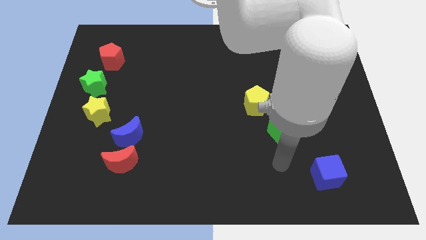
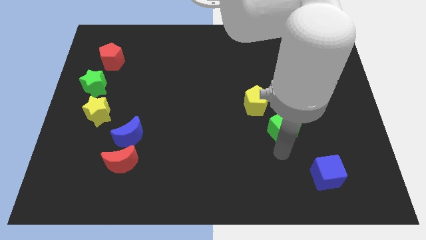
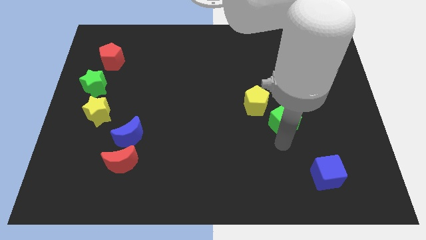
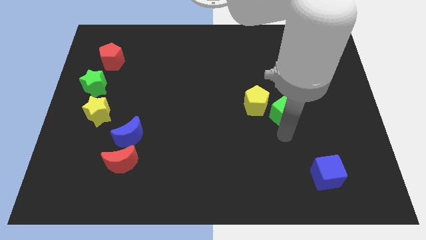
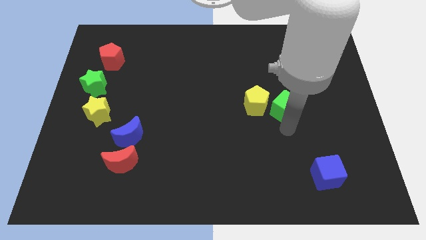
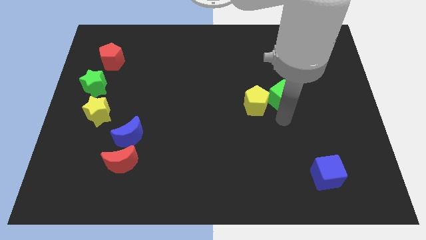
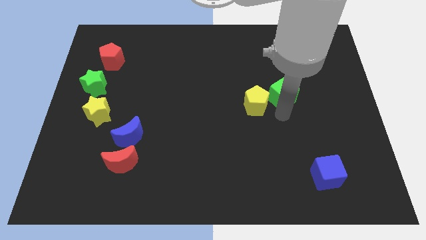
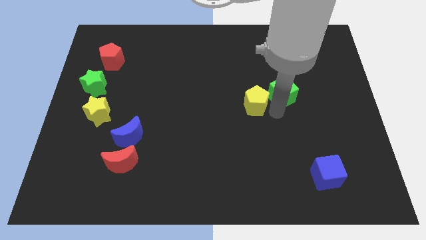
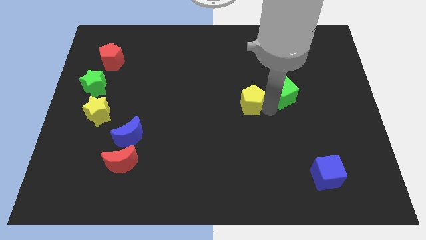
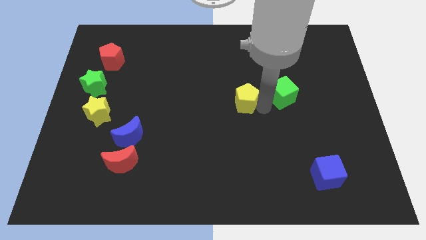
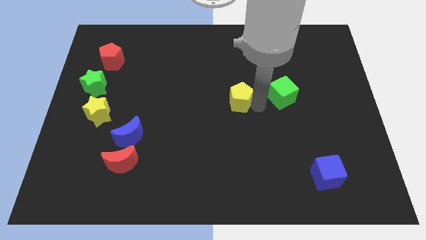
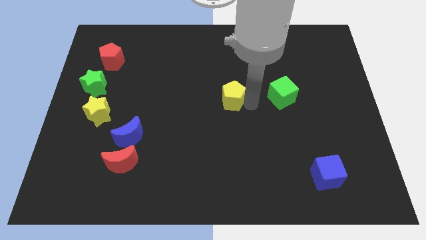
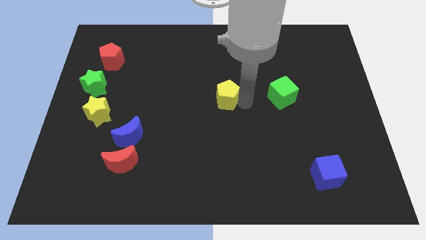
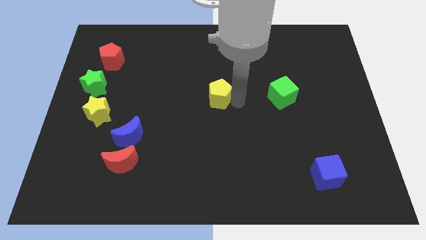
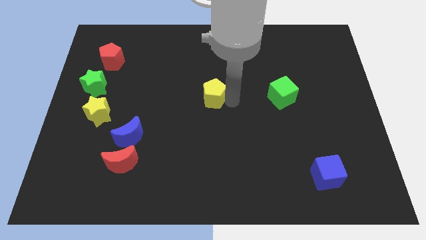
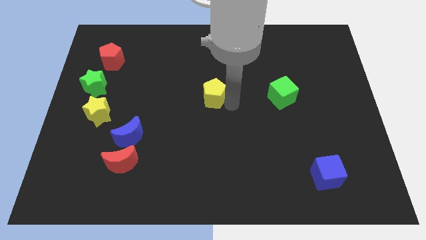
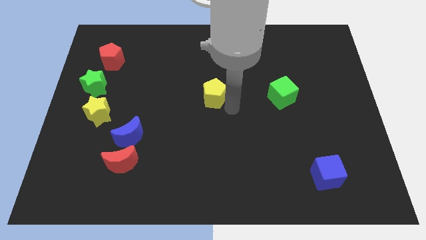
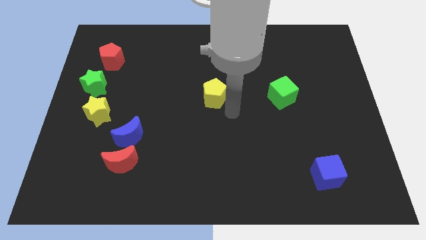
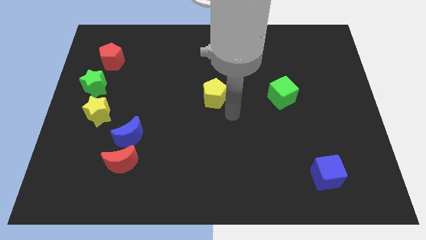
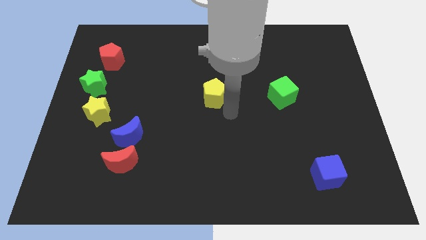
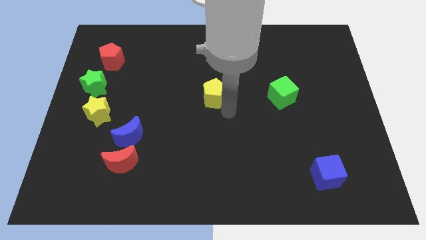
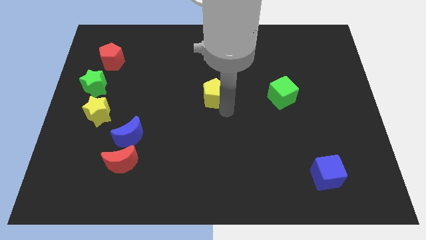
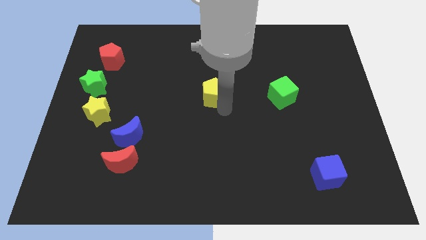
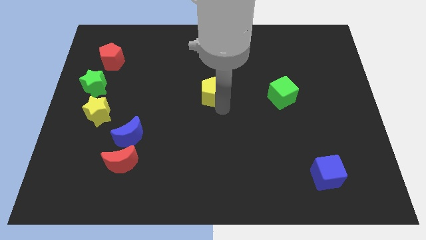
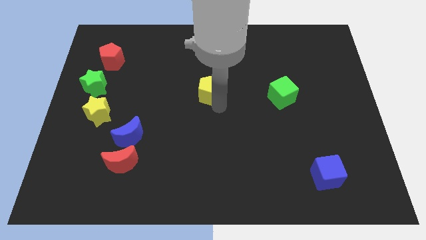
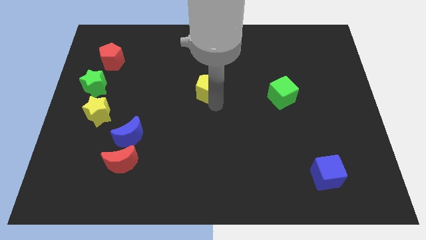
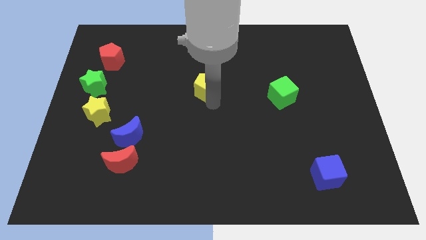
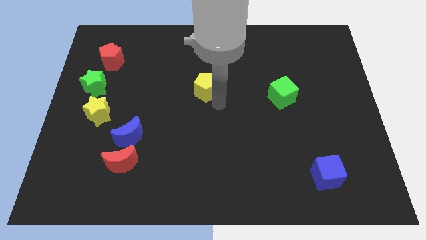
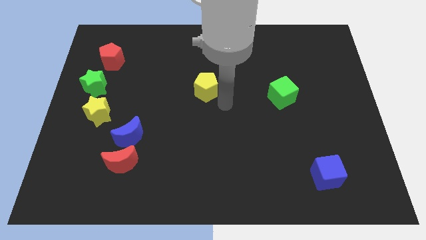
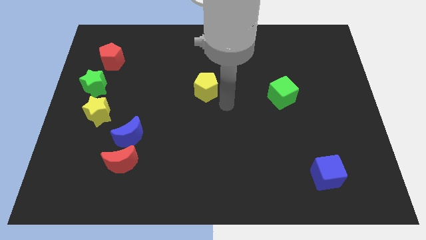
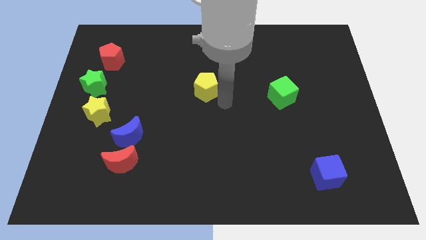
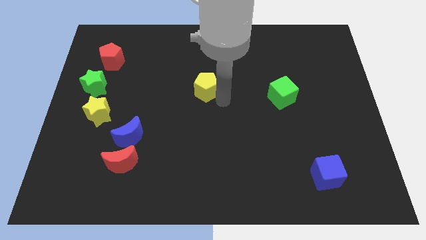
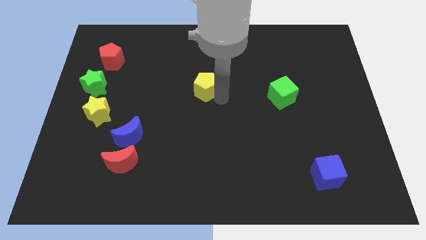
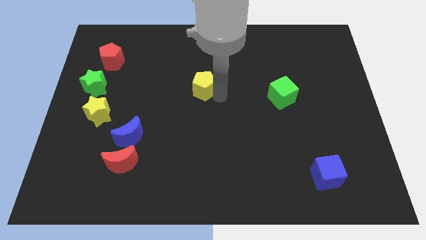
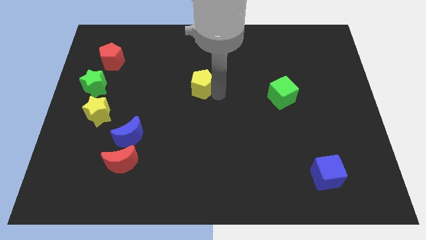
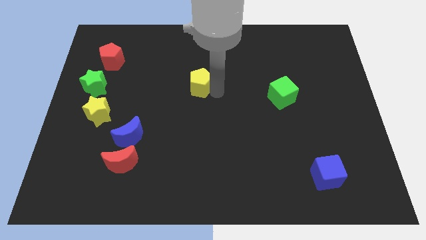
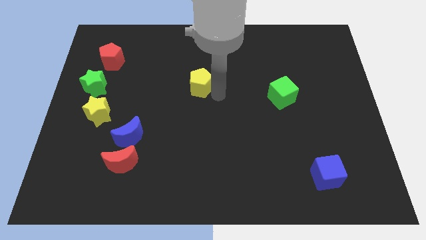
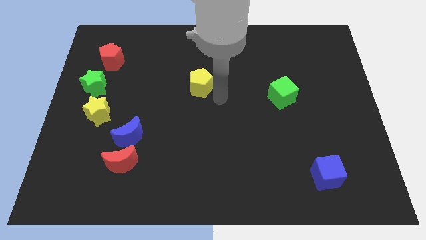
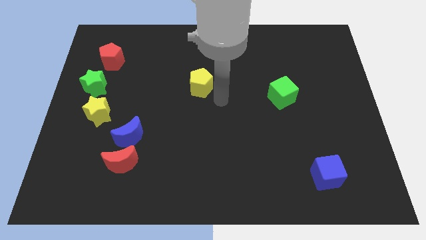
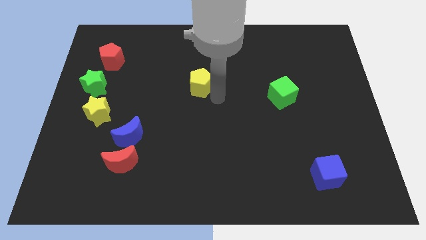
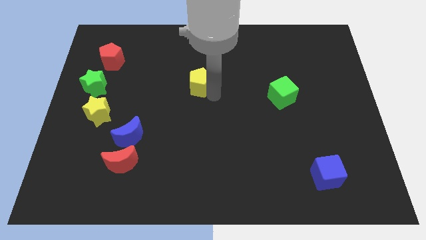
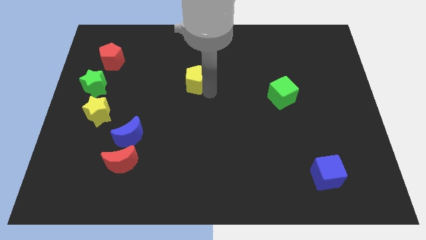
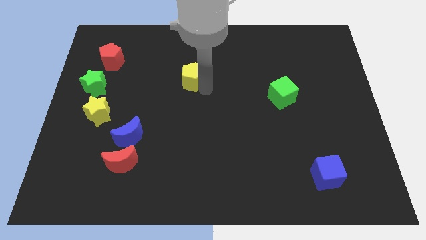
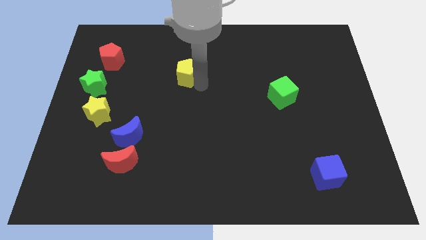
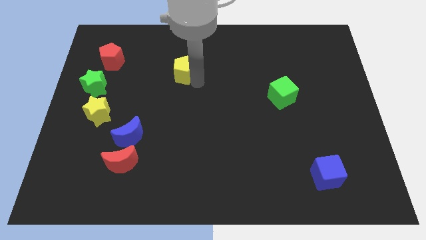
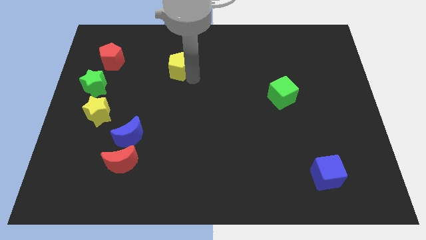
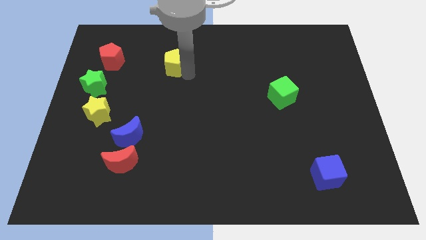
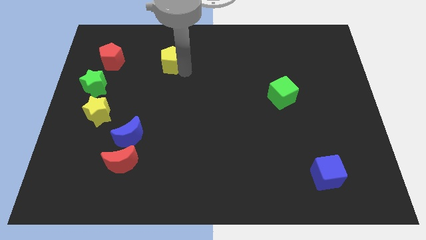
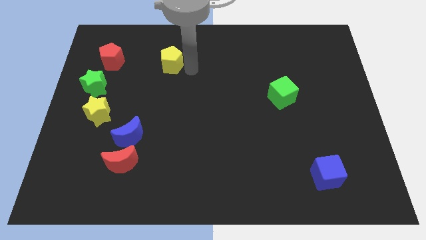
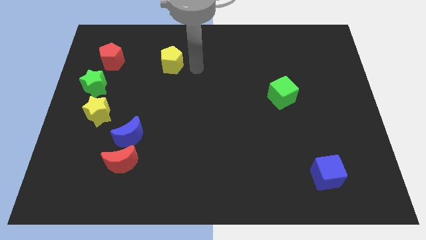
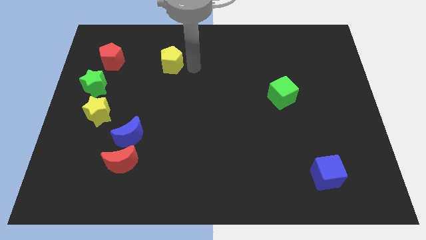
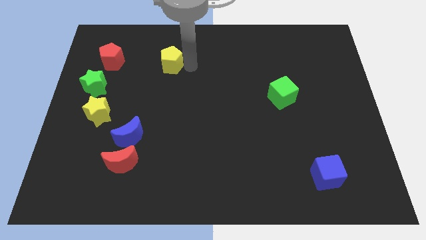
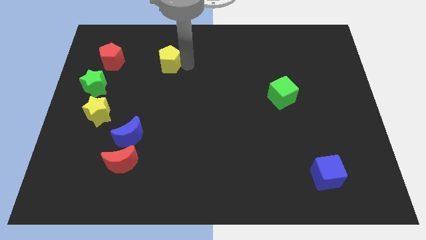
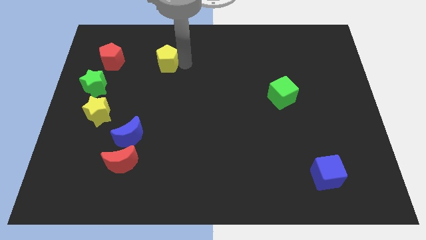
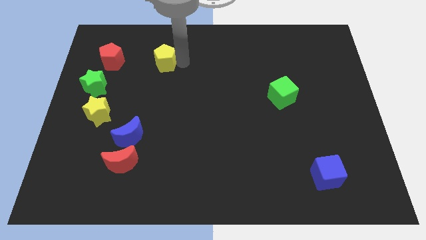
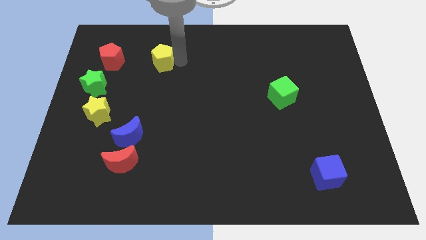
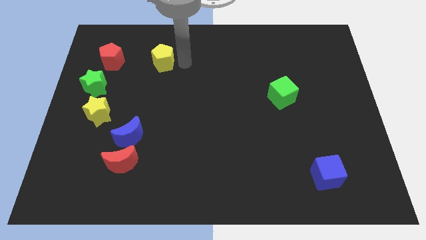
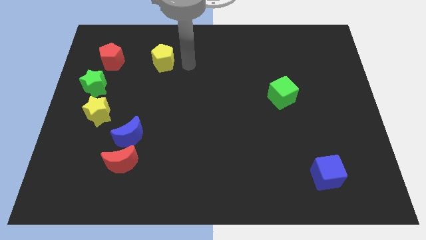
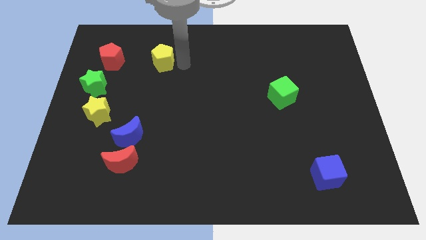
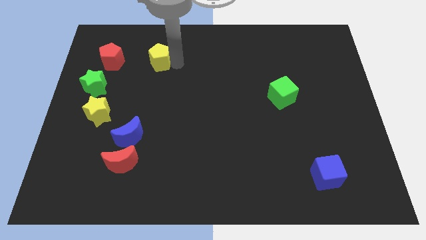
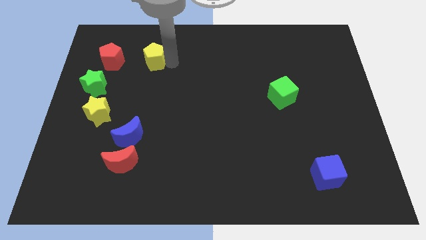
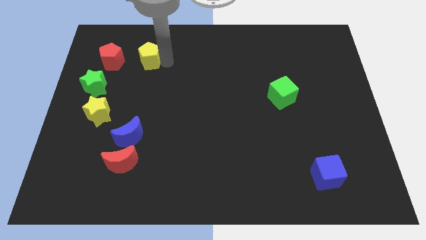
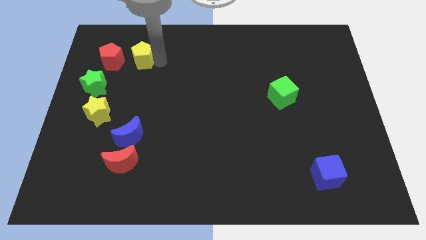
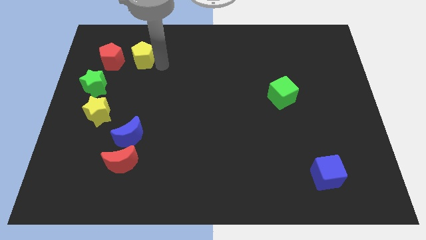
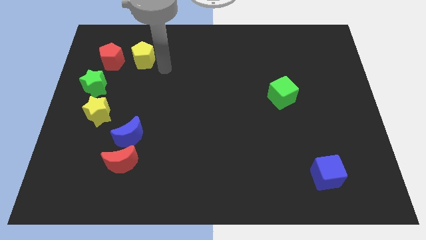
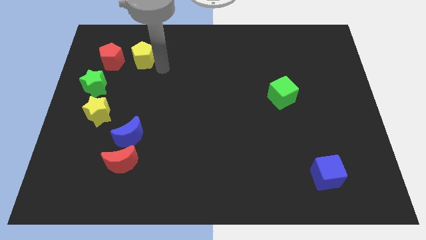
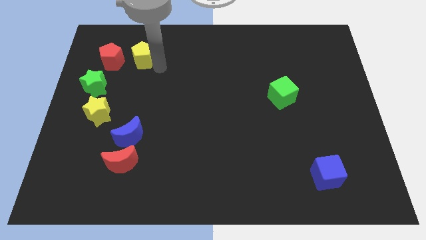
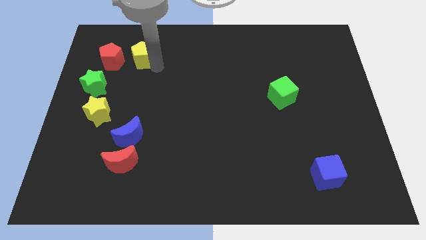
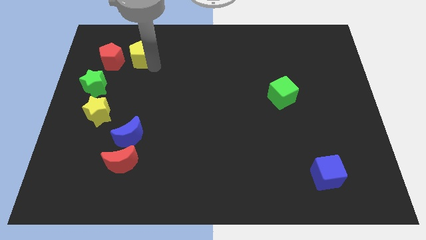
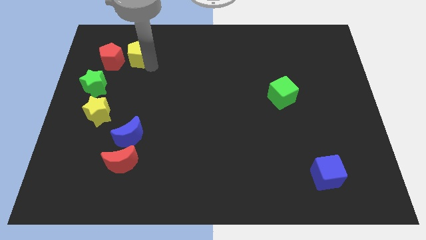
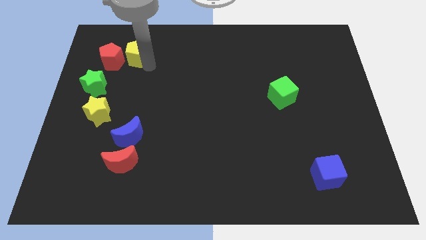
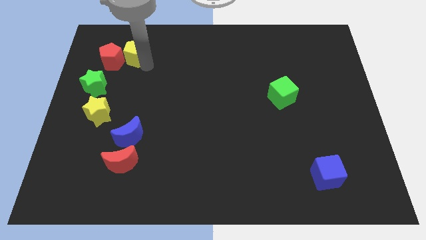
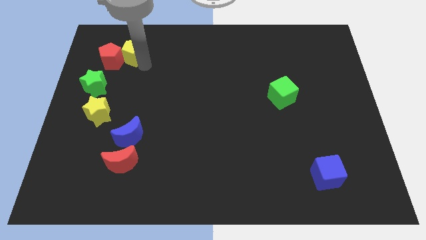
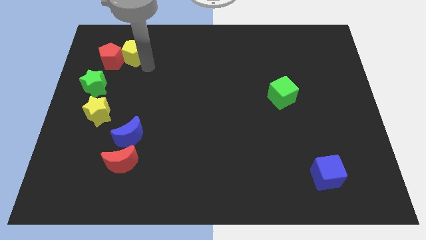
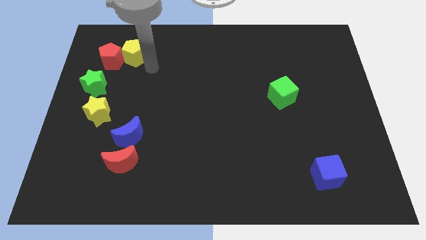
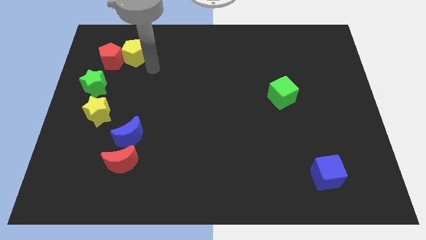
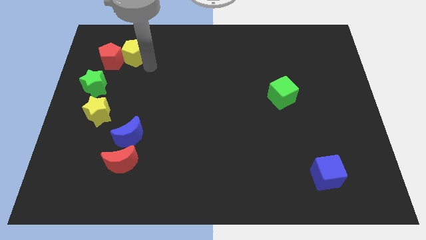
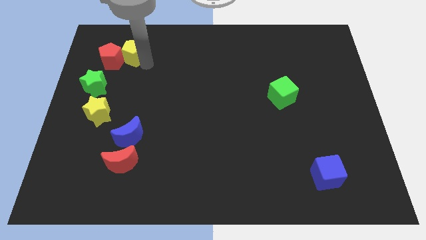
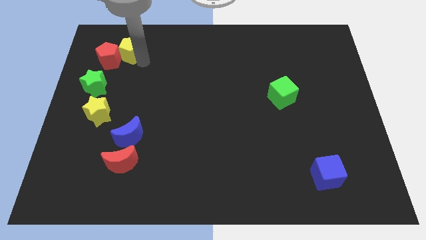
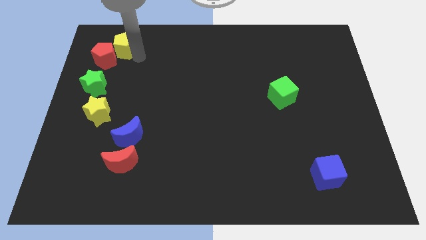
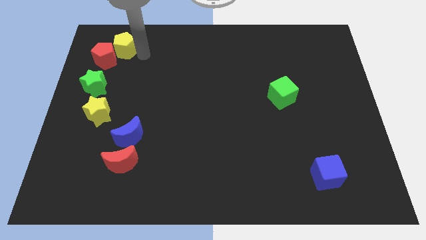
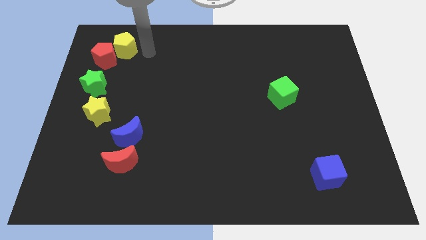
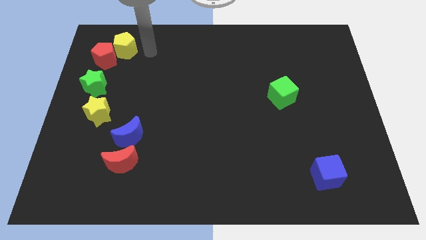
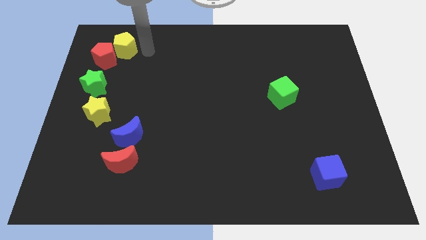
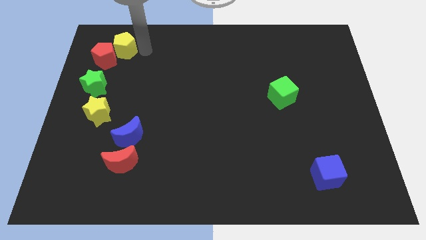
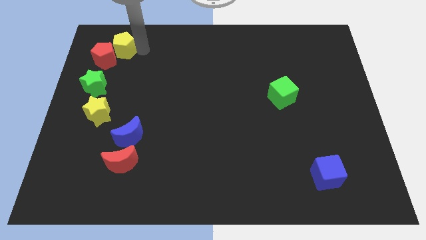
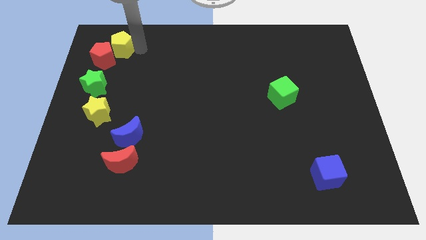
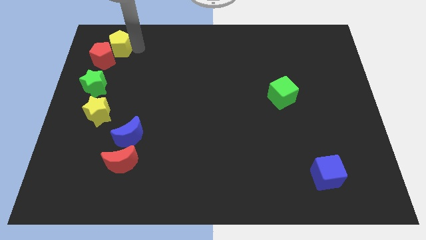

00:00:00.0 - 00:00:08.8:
slide the yellow pentagon to the top of the green star
